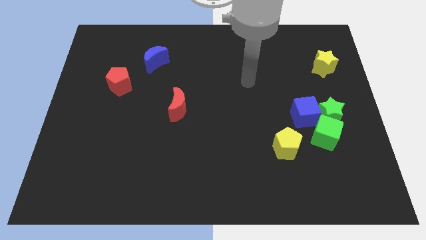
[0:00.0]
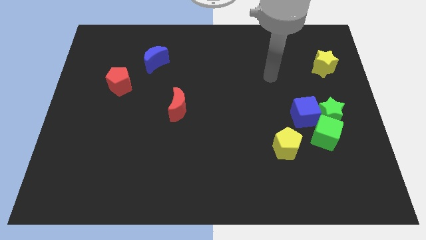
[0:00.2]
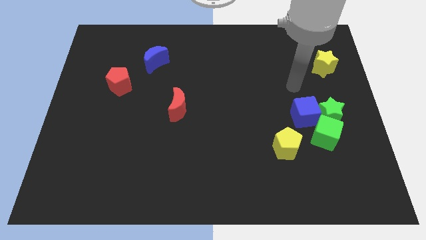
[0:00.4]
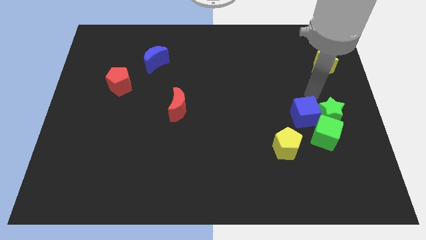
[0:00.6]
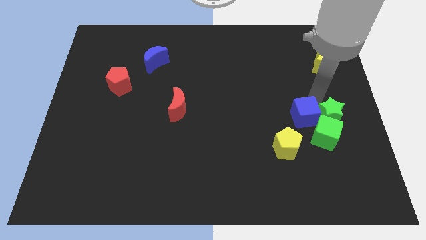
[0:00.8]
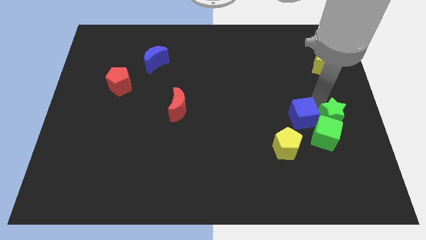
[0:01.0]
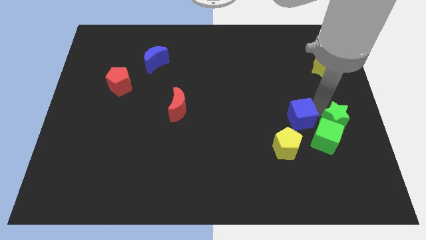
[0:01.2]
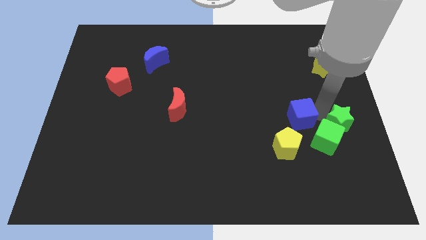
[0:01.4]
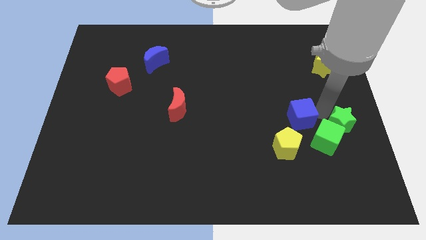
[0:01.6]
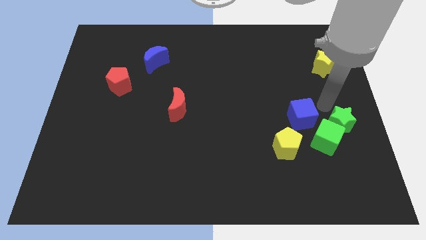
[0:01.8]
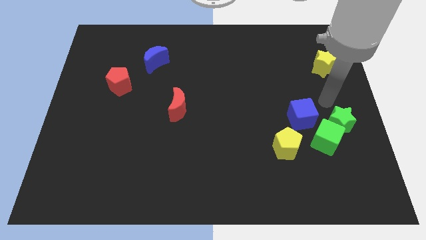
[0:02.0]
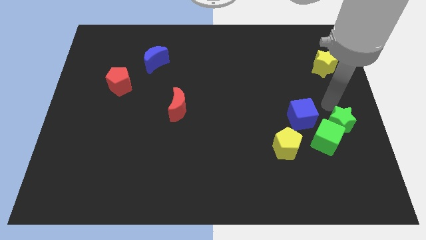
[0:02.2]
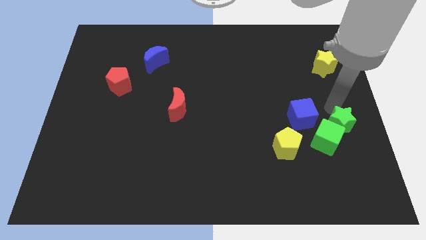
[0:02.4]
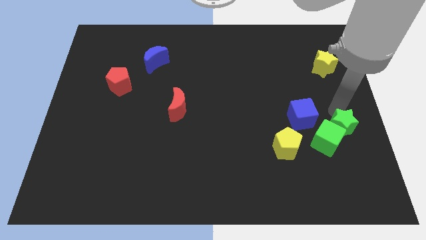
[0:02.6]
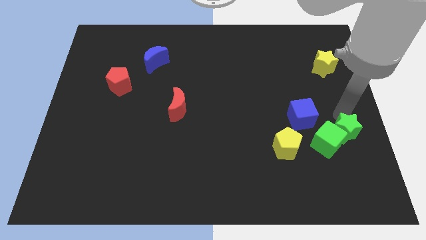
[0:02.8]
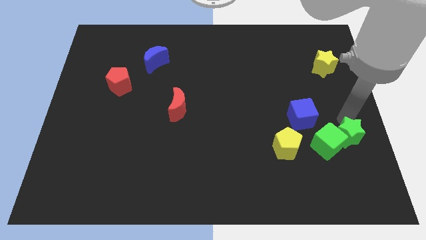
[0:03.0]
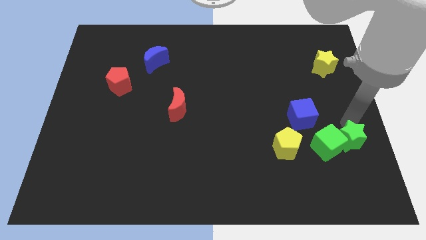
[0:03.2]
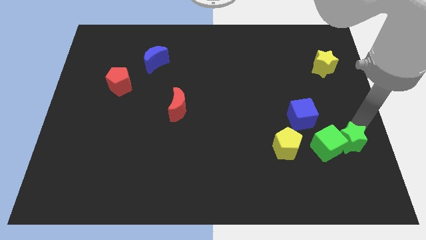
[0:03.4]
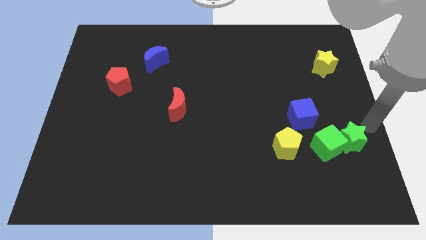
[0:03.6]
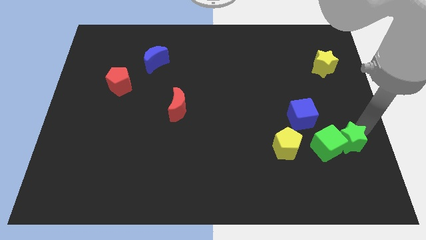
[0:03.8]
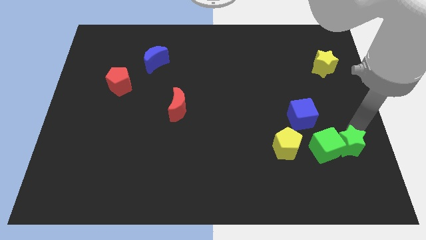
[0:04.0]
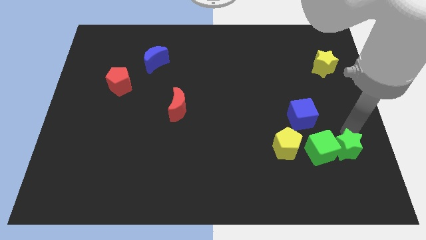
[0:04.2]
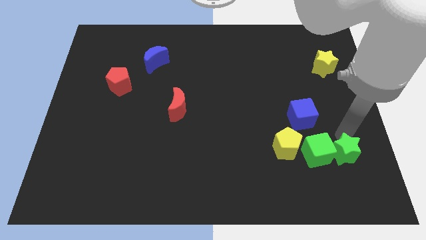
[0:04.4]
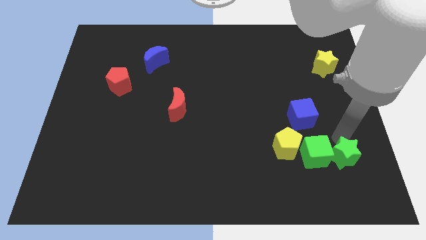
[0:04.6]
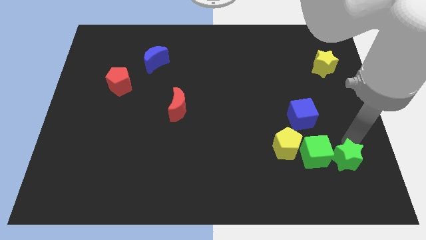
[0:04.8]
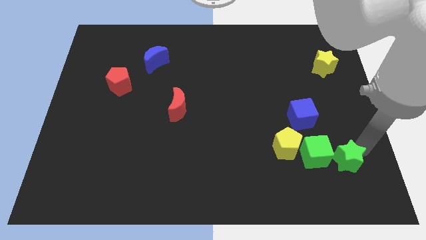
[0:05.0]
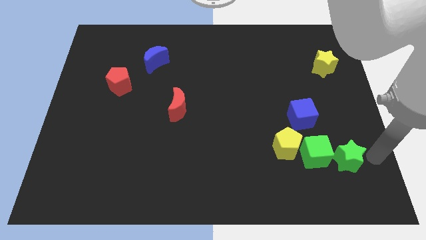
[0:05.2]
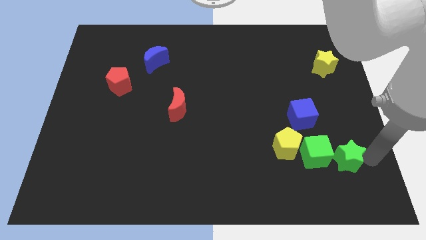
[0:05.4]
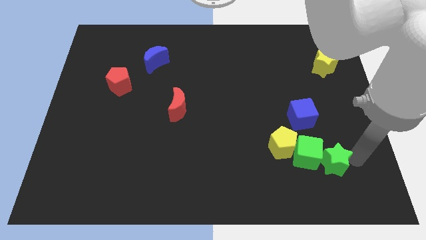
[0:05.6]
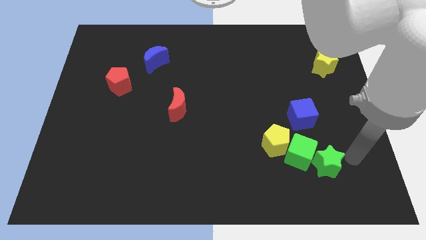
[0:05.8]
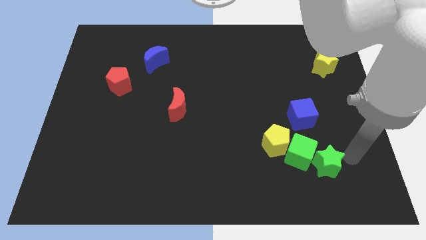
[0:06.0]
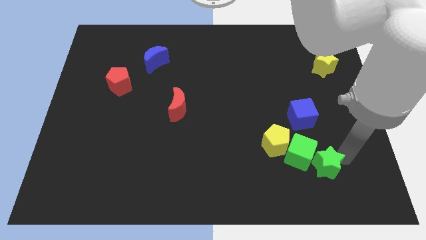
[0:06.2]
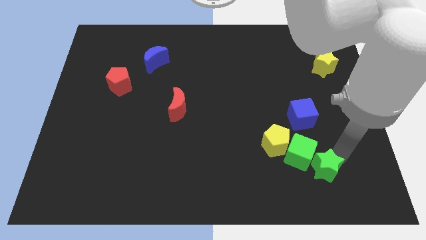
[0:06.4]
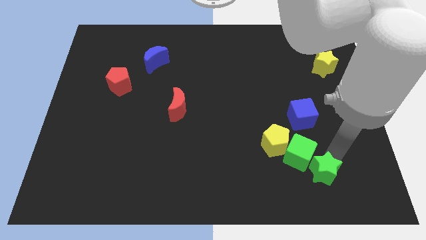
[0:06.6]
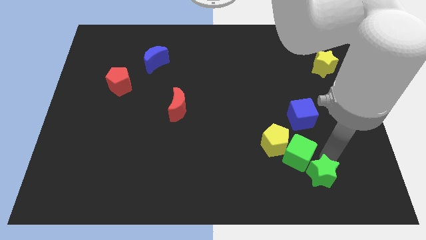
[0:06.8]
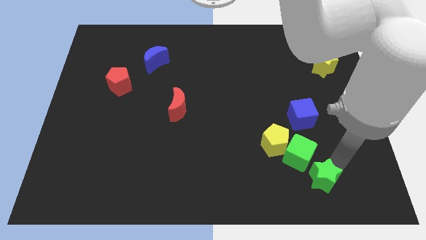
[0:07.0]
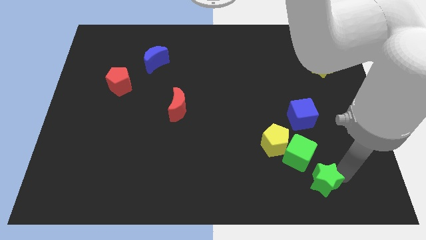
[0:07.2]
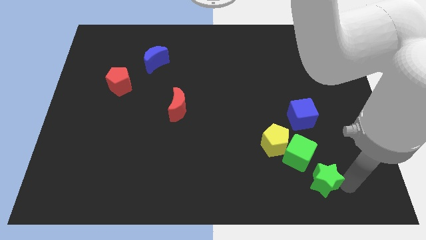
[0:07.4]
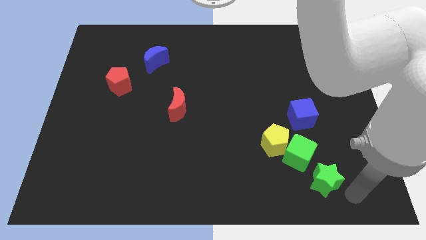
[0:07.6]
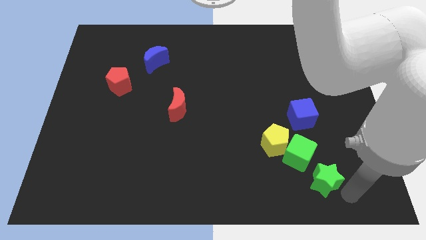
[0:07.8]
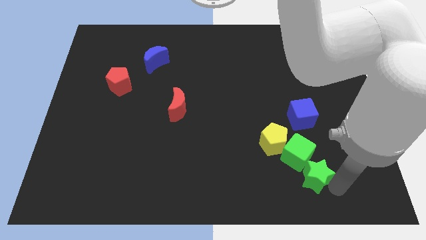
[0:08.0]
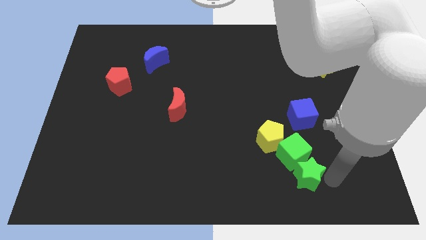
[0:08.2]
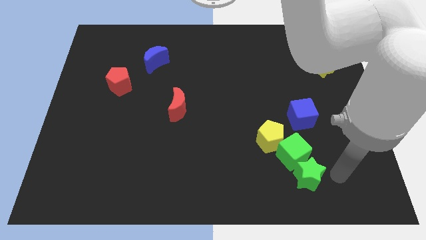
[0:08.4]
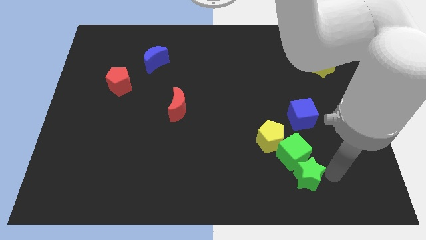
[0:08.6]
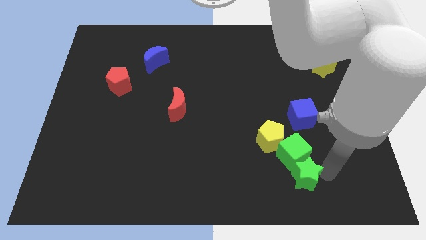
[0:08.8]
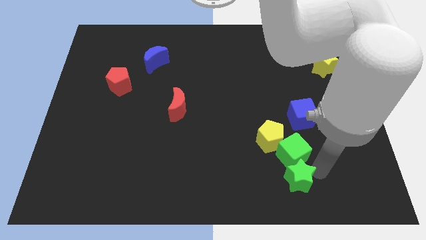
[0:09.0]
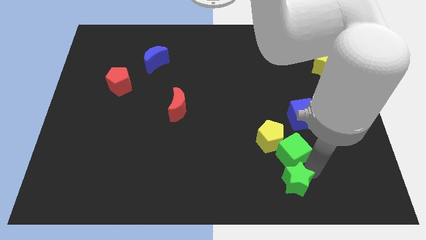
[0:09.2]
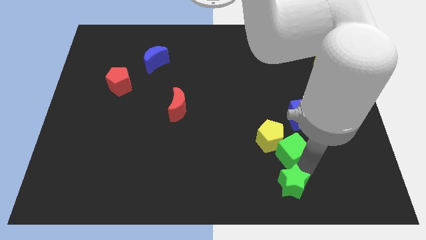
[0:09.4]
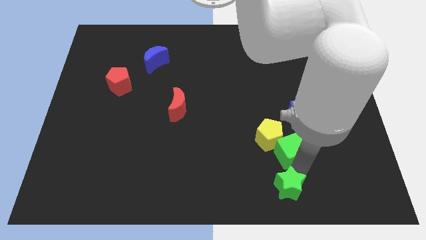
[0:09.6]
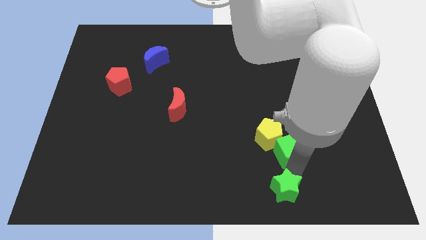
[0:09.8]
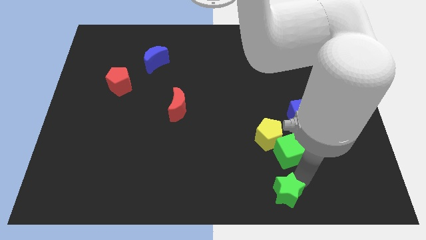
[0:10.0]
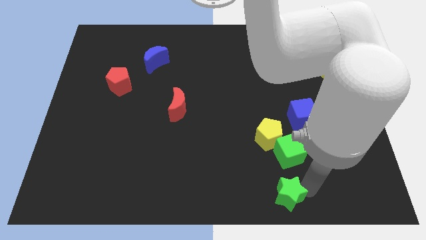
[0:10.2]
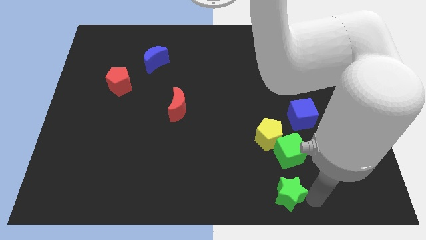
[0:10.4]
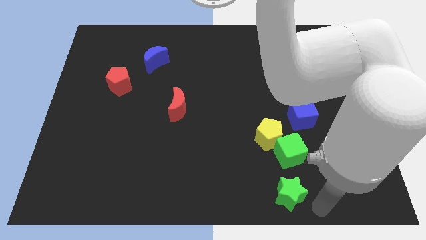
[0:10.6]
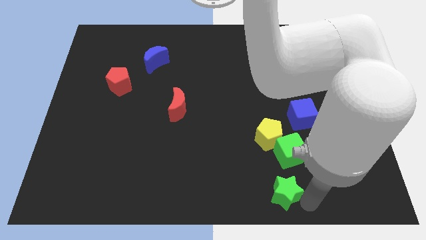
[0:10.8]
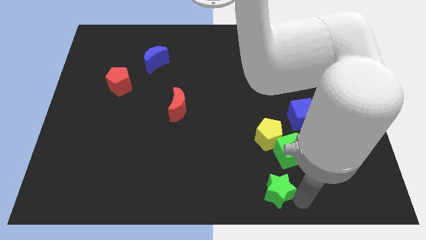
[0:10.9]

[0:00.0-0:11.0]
put the green star to the bottom side

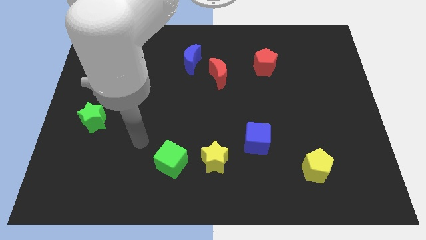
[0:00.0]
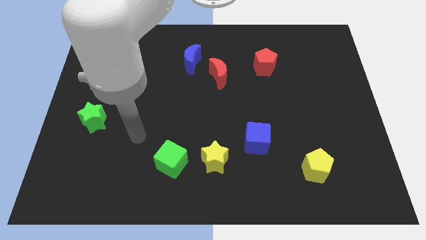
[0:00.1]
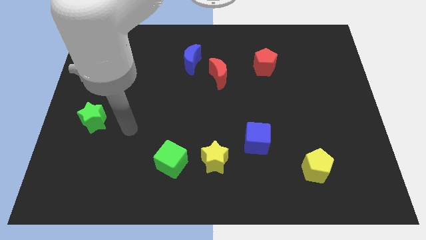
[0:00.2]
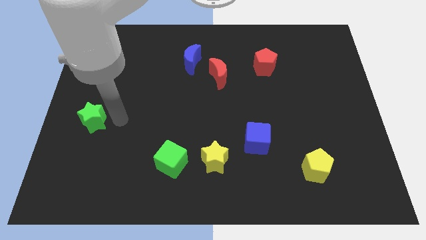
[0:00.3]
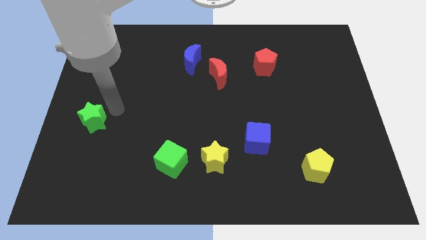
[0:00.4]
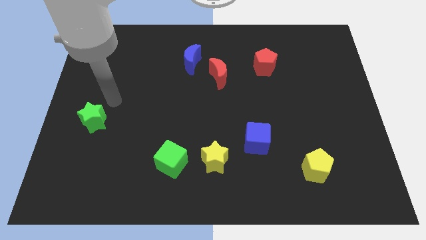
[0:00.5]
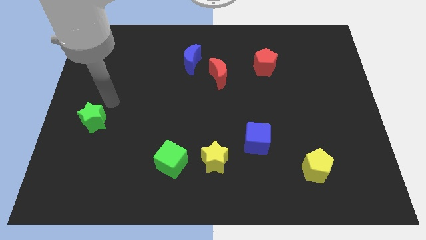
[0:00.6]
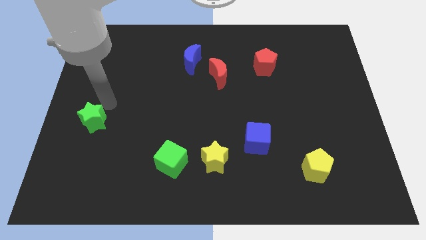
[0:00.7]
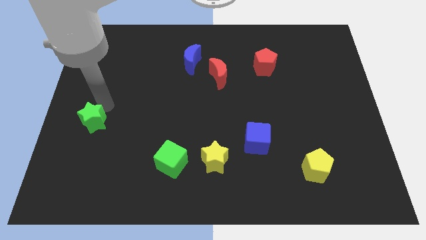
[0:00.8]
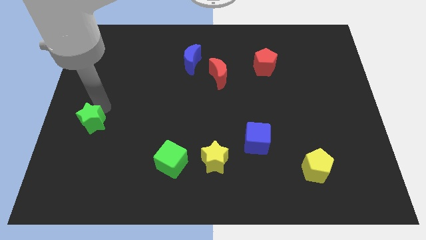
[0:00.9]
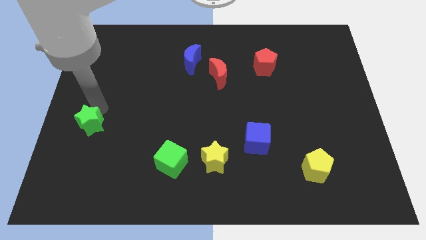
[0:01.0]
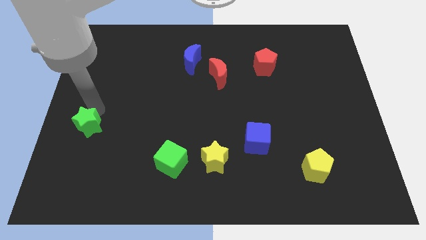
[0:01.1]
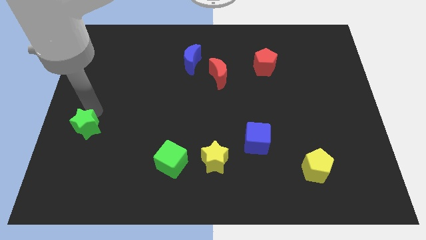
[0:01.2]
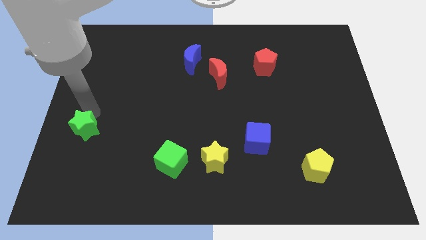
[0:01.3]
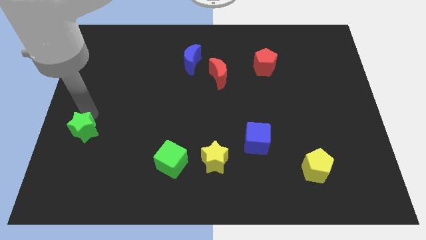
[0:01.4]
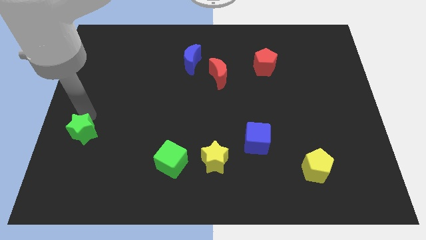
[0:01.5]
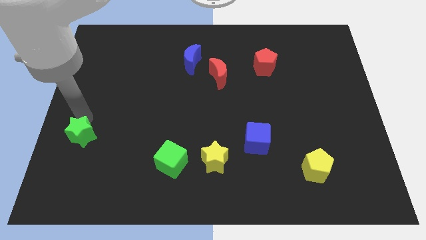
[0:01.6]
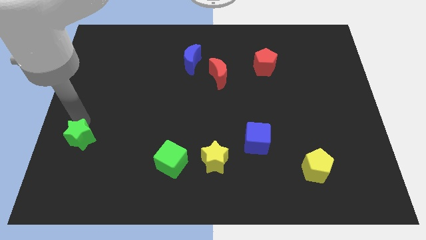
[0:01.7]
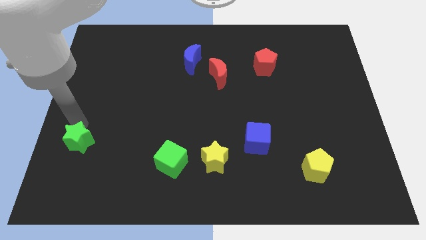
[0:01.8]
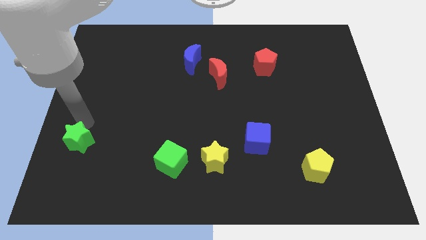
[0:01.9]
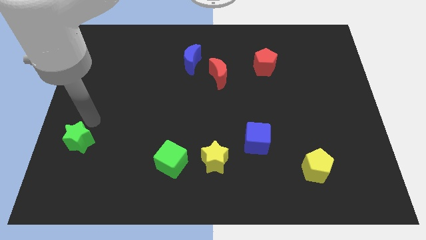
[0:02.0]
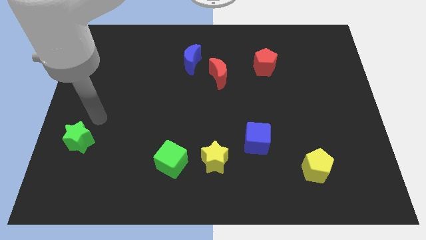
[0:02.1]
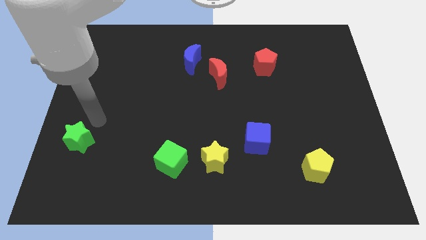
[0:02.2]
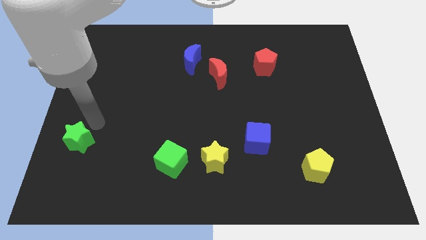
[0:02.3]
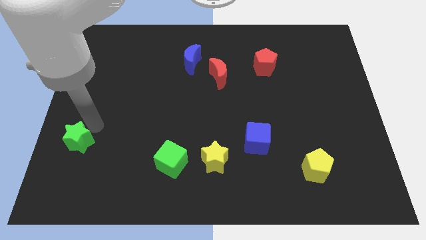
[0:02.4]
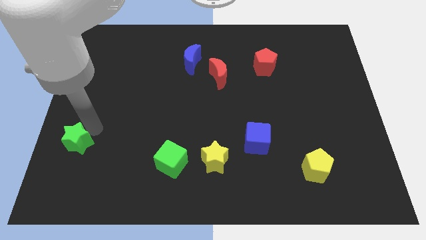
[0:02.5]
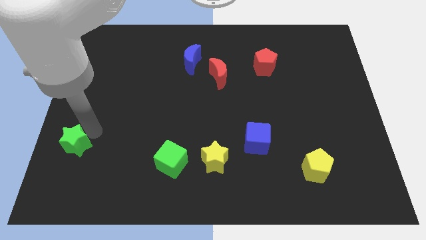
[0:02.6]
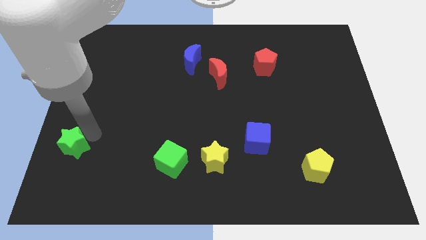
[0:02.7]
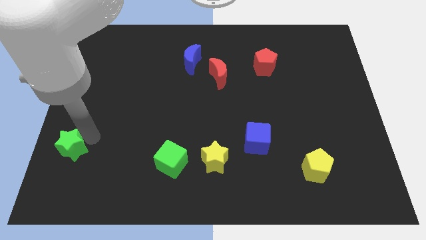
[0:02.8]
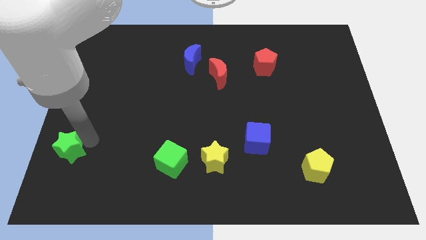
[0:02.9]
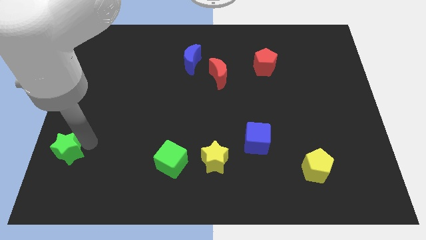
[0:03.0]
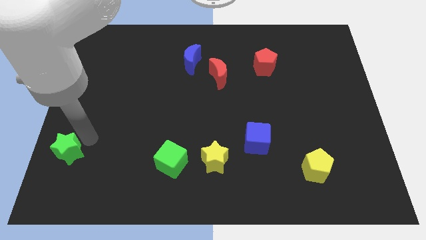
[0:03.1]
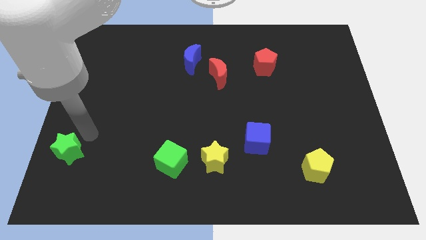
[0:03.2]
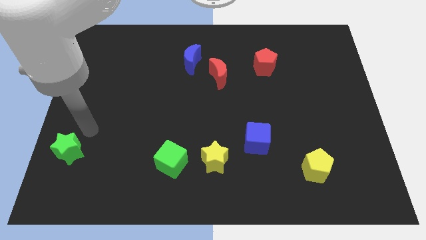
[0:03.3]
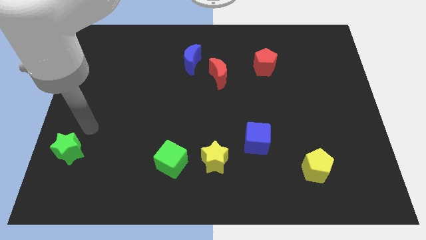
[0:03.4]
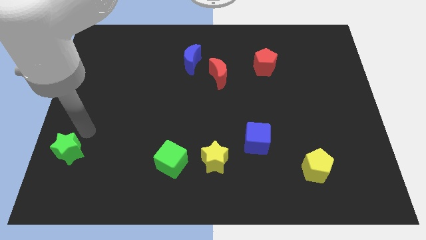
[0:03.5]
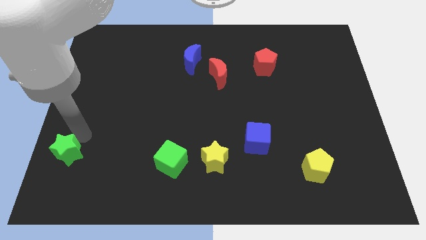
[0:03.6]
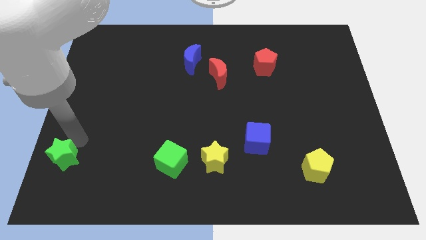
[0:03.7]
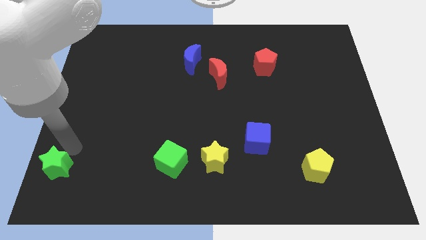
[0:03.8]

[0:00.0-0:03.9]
push the green star to the bottom left
